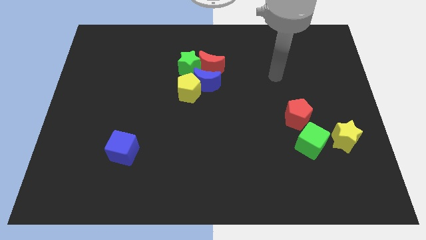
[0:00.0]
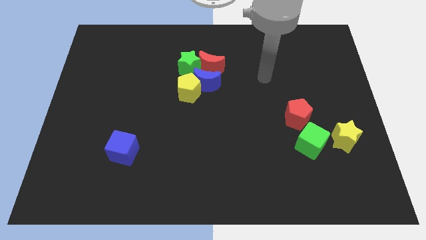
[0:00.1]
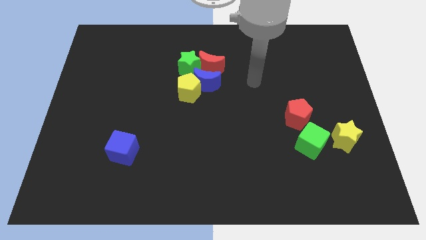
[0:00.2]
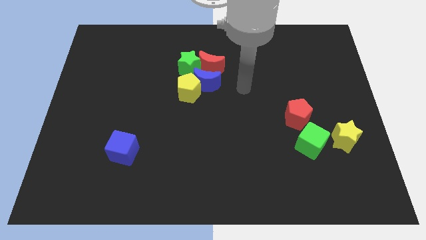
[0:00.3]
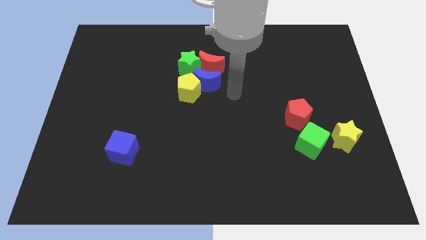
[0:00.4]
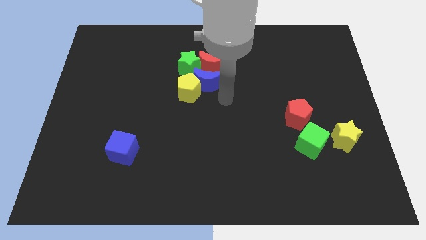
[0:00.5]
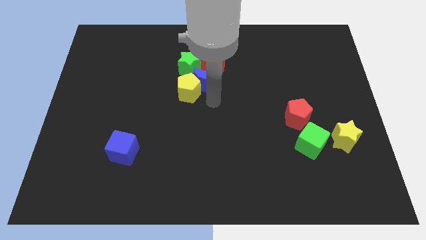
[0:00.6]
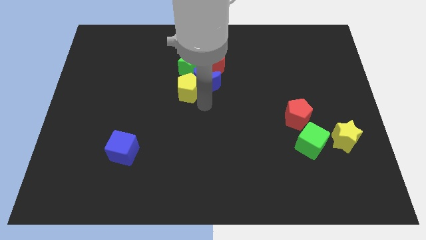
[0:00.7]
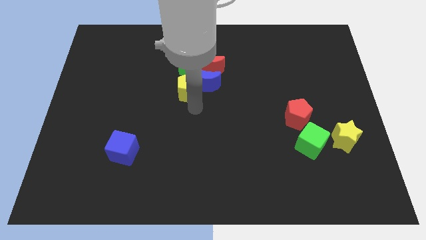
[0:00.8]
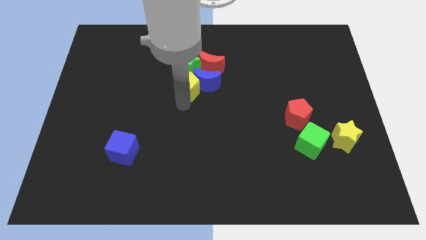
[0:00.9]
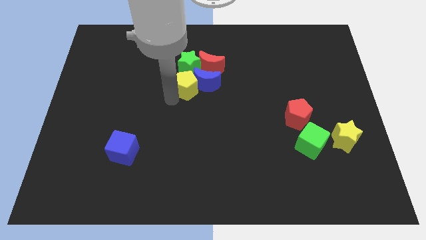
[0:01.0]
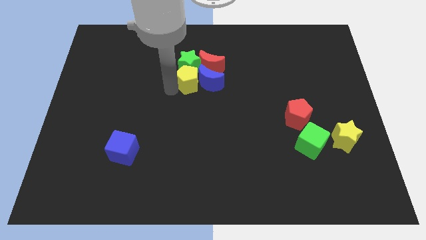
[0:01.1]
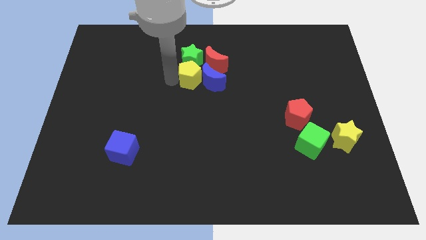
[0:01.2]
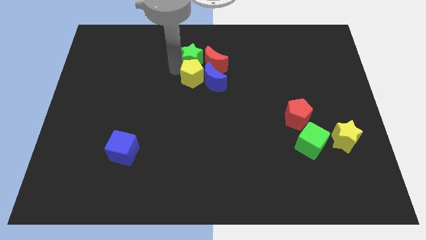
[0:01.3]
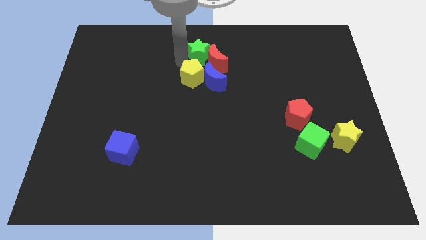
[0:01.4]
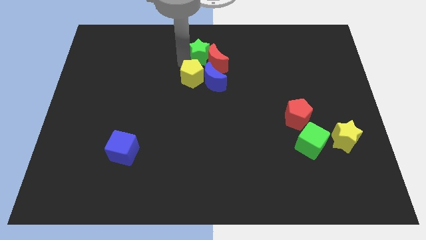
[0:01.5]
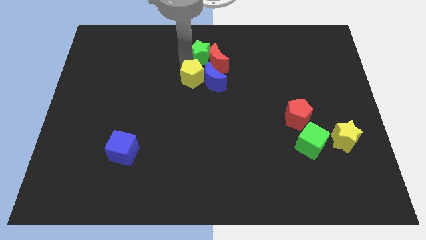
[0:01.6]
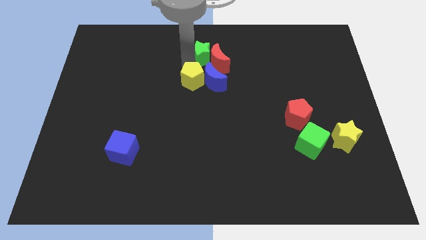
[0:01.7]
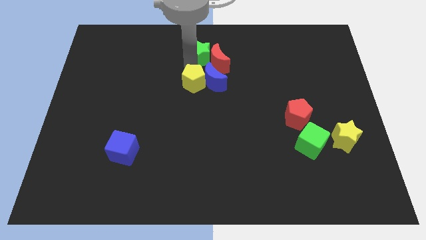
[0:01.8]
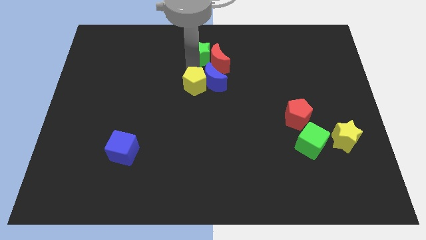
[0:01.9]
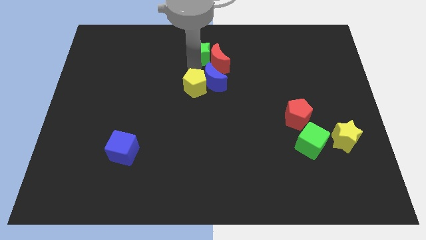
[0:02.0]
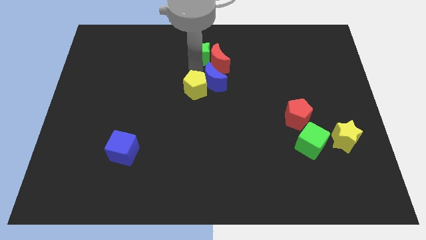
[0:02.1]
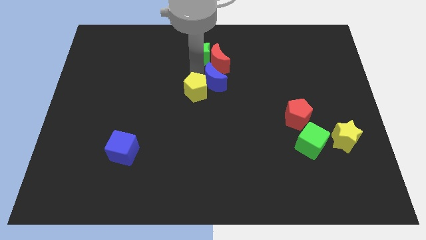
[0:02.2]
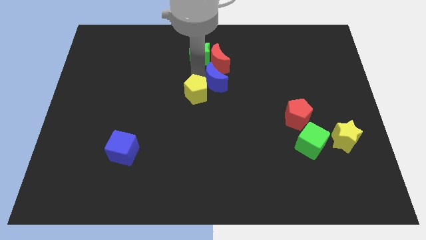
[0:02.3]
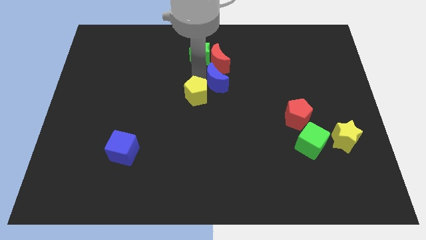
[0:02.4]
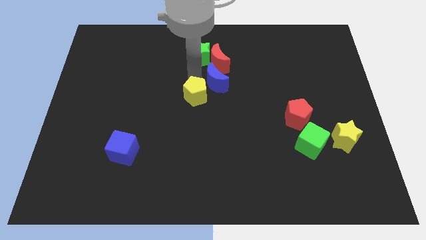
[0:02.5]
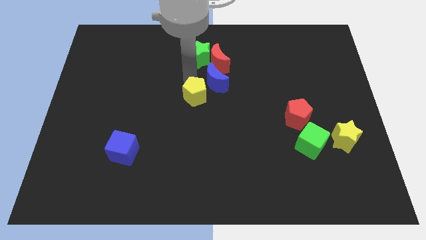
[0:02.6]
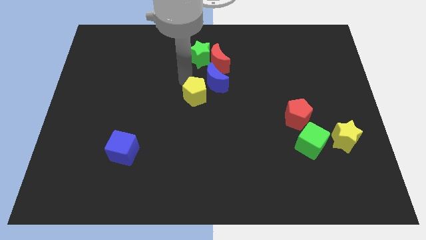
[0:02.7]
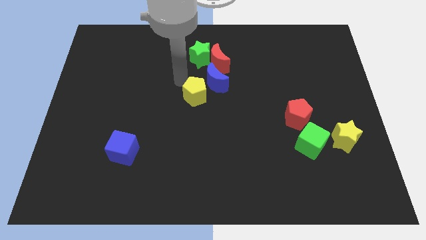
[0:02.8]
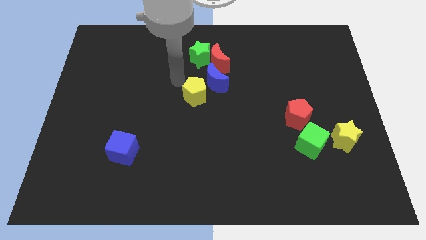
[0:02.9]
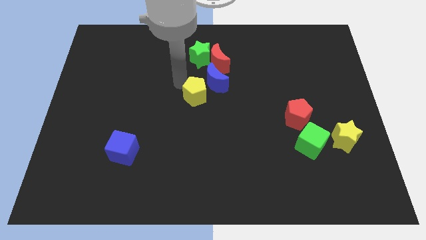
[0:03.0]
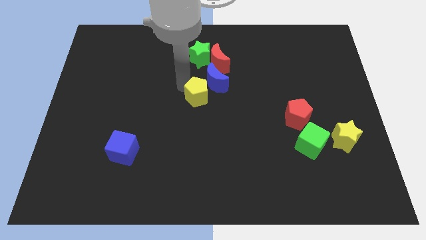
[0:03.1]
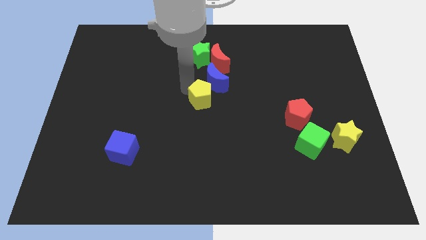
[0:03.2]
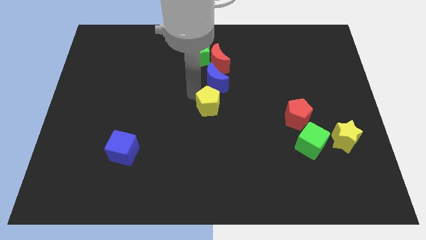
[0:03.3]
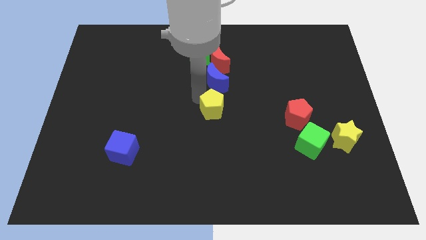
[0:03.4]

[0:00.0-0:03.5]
move the yellow pentagon a little diagonally downwards and right

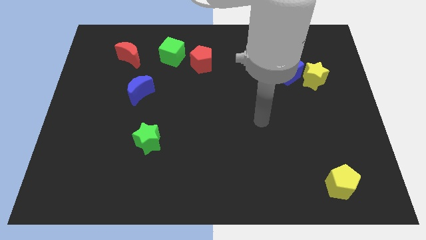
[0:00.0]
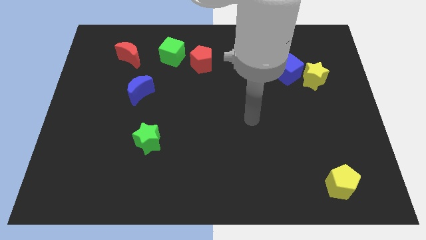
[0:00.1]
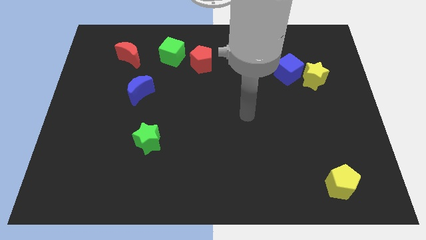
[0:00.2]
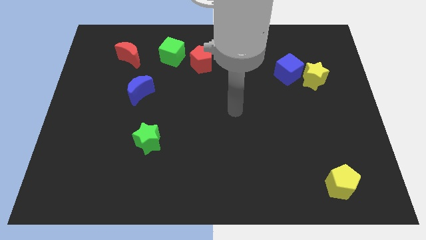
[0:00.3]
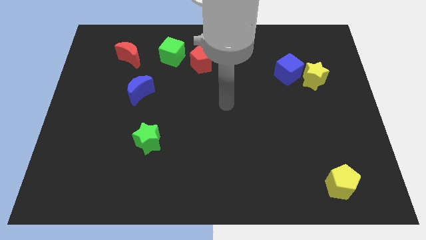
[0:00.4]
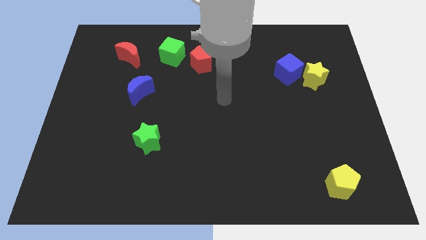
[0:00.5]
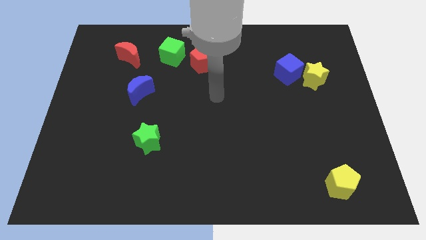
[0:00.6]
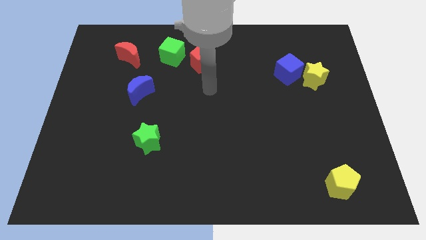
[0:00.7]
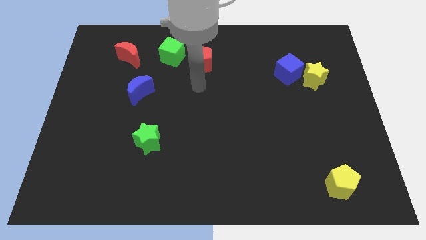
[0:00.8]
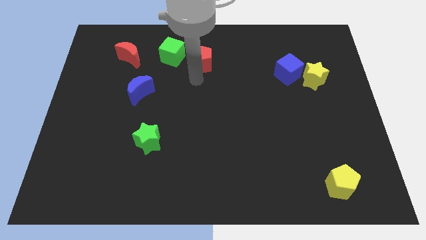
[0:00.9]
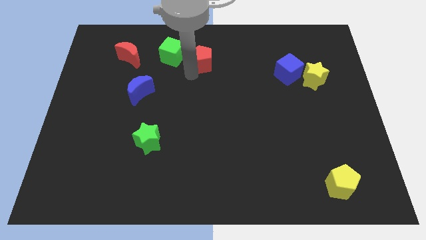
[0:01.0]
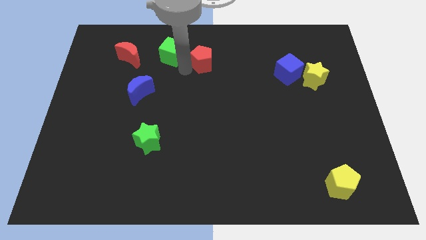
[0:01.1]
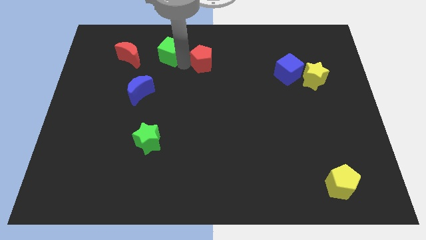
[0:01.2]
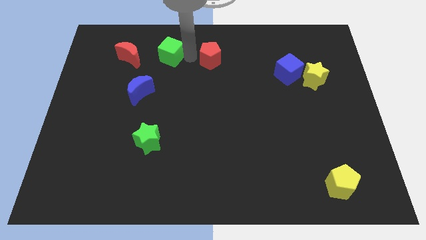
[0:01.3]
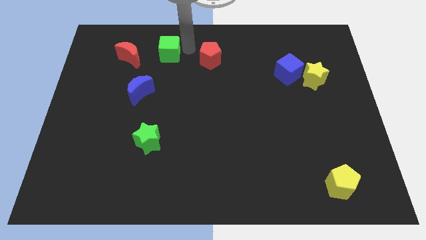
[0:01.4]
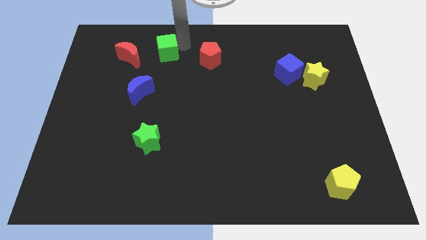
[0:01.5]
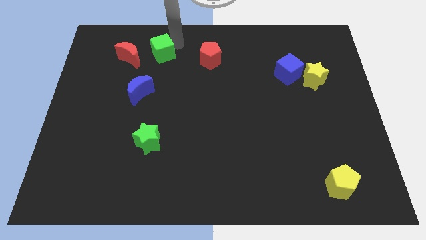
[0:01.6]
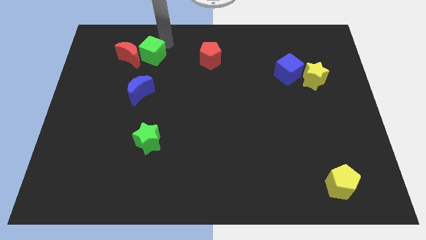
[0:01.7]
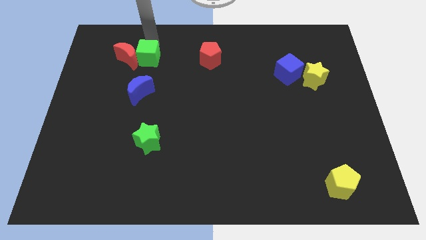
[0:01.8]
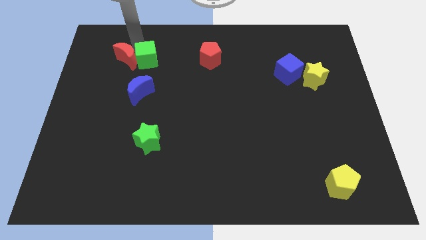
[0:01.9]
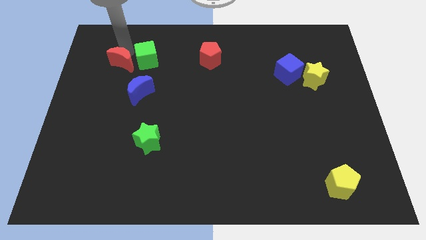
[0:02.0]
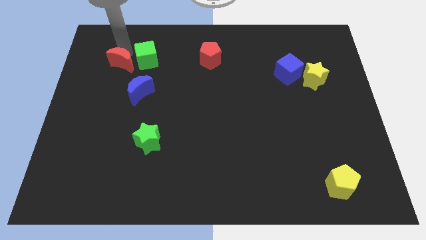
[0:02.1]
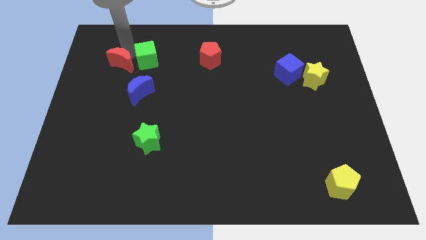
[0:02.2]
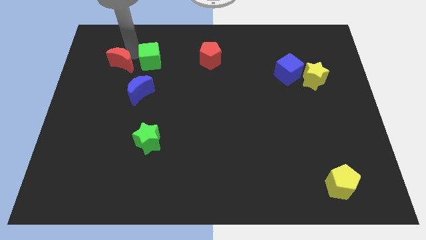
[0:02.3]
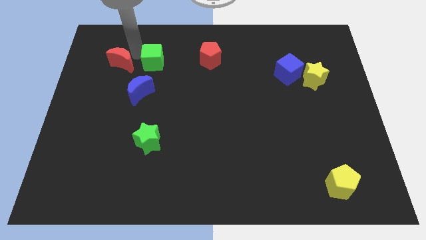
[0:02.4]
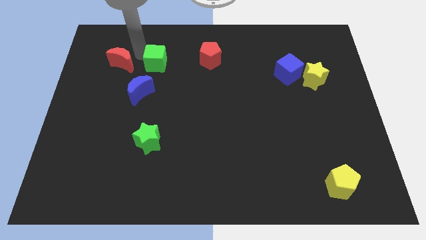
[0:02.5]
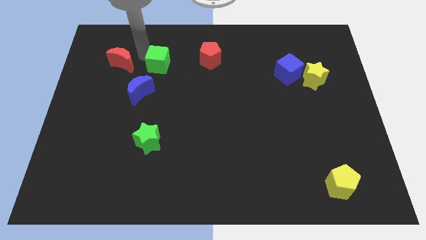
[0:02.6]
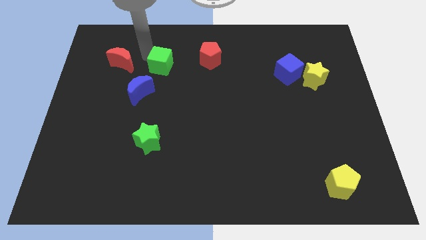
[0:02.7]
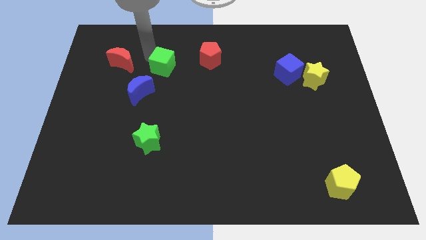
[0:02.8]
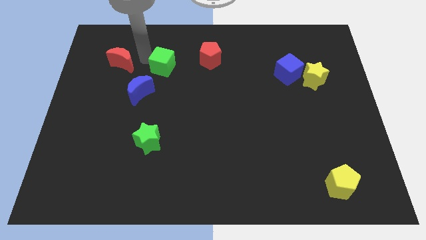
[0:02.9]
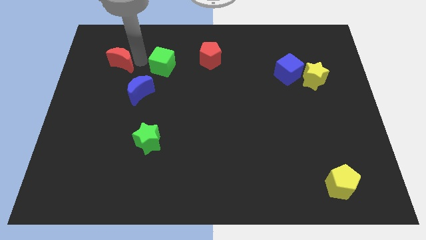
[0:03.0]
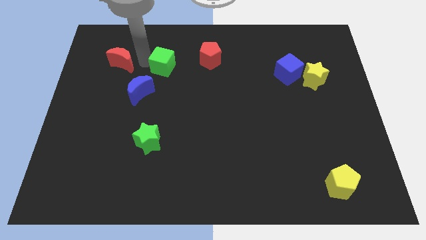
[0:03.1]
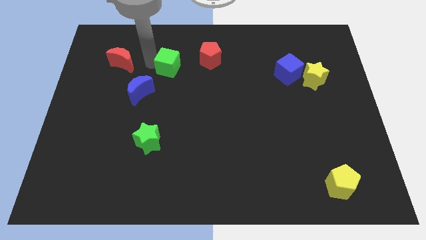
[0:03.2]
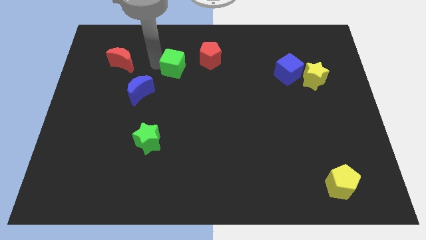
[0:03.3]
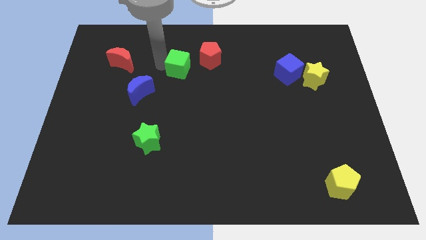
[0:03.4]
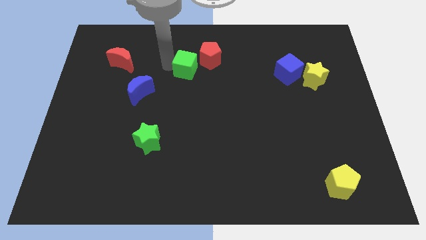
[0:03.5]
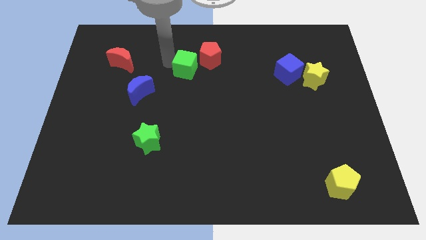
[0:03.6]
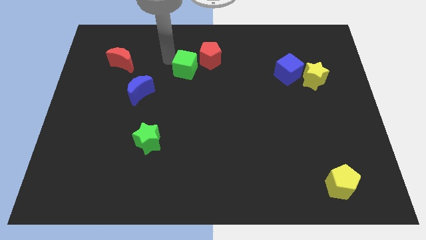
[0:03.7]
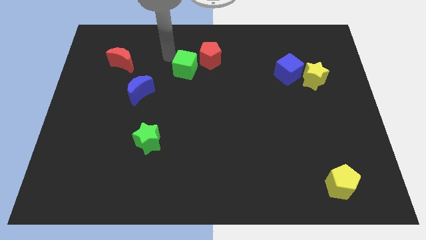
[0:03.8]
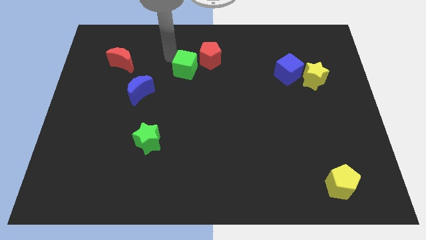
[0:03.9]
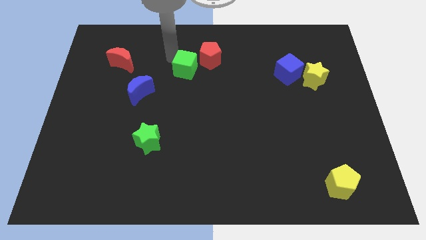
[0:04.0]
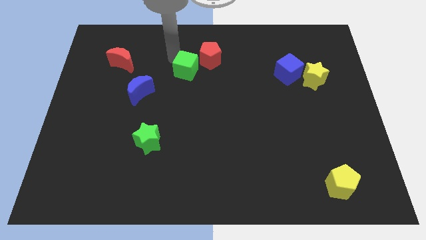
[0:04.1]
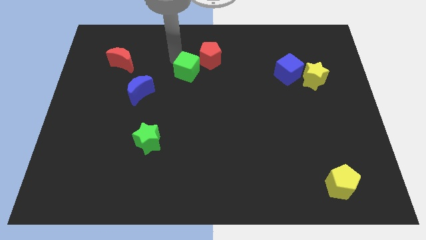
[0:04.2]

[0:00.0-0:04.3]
push the green cube a bit downwards and to the right

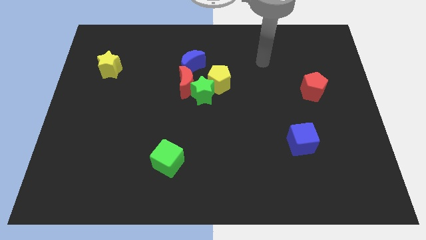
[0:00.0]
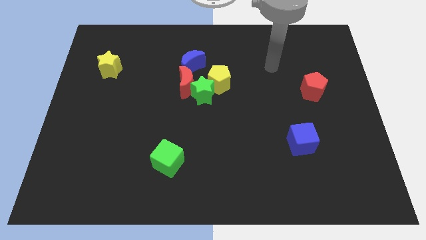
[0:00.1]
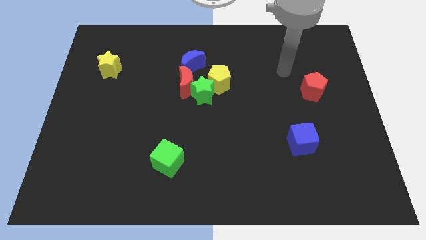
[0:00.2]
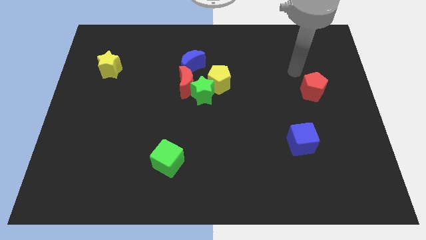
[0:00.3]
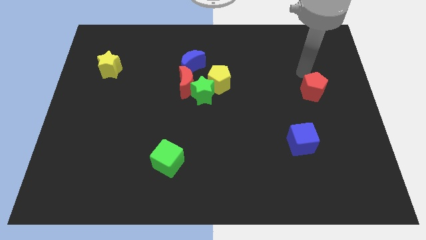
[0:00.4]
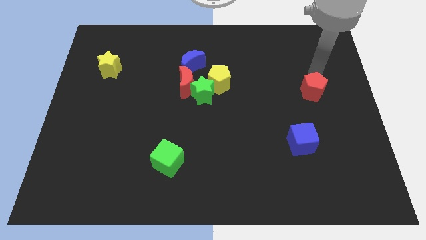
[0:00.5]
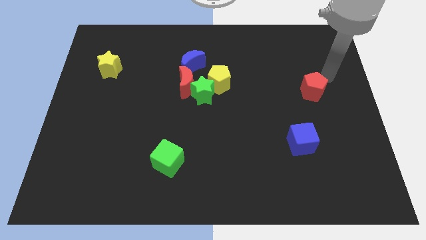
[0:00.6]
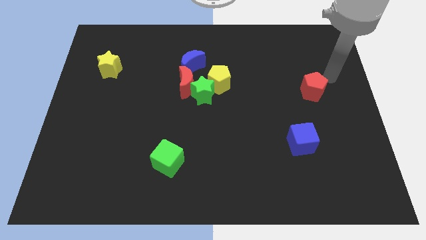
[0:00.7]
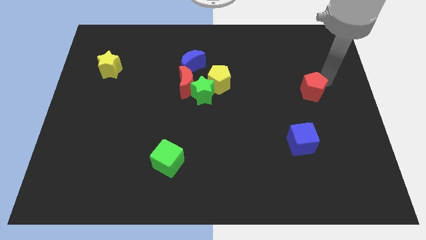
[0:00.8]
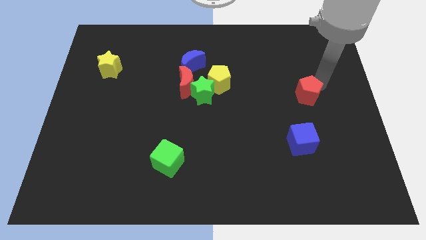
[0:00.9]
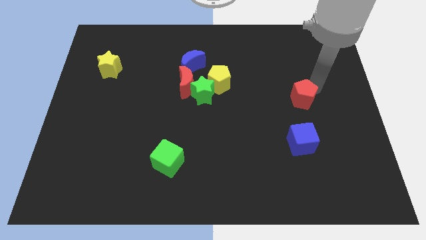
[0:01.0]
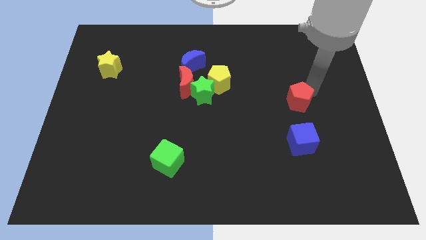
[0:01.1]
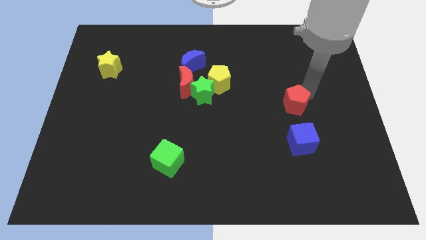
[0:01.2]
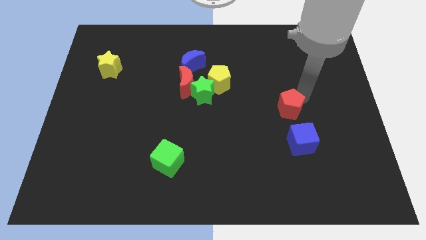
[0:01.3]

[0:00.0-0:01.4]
slightly push the red pentagon down and left diagonally
